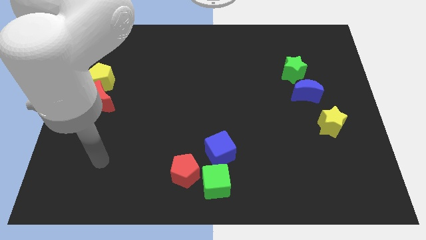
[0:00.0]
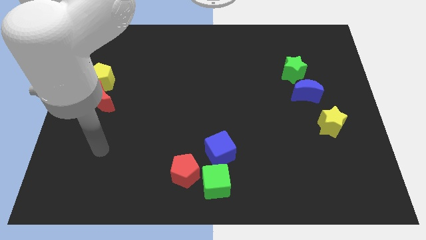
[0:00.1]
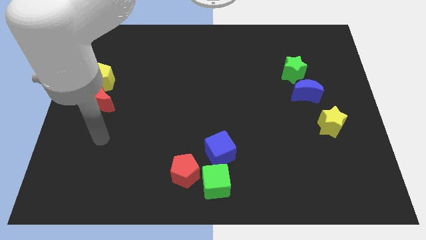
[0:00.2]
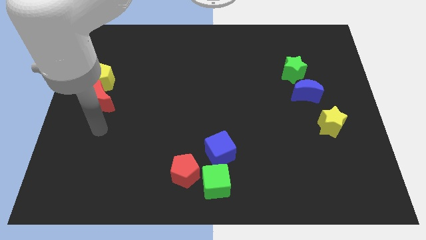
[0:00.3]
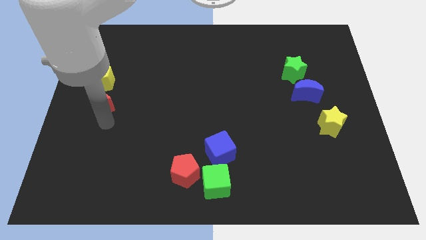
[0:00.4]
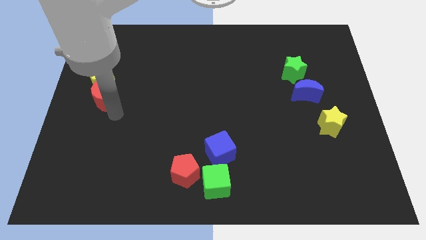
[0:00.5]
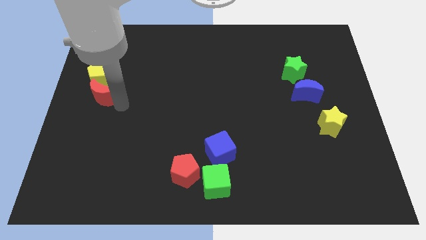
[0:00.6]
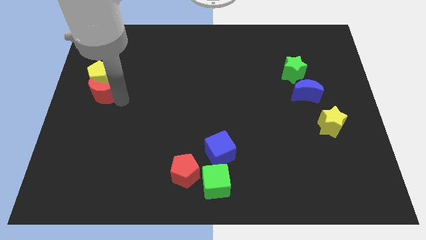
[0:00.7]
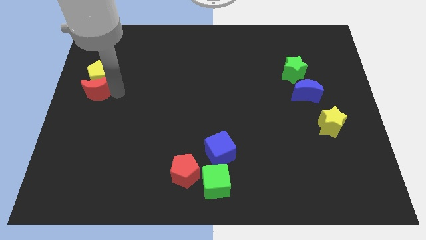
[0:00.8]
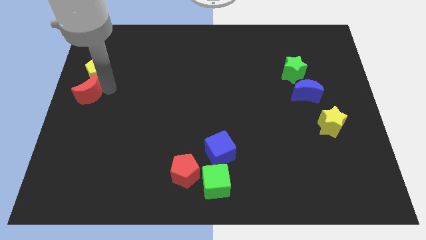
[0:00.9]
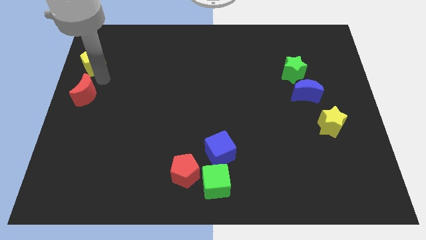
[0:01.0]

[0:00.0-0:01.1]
pull the red moon apart from the yellow pentagon

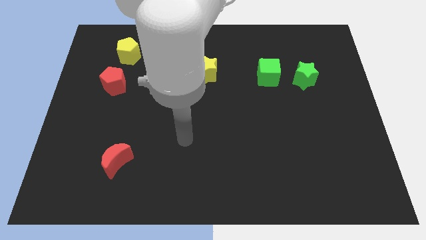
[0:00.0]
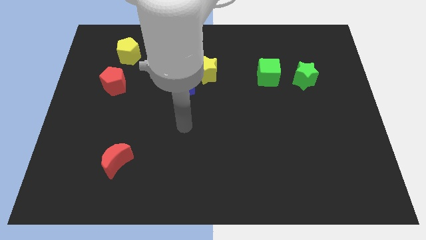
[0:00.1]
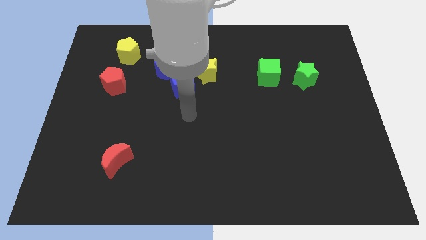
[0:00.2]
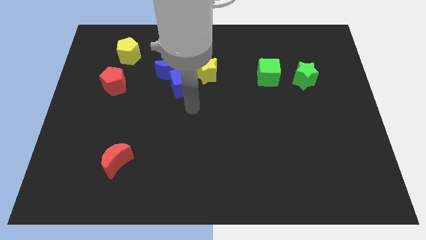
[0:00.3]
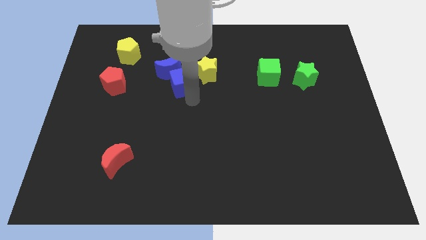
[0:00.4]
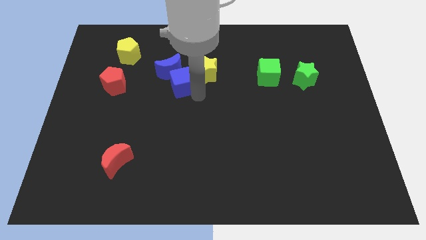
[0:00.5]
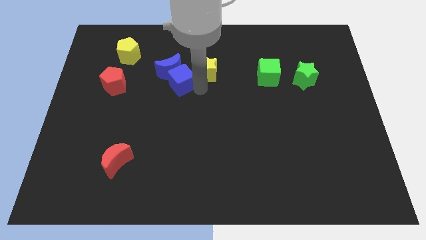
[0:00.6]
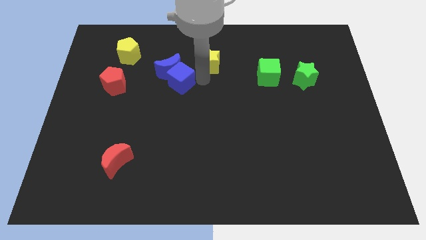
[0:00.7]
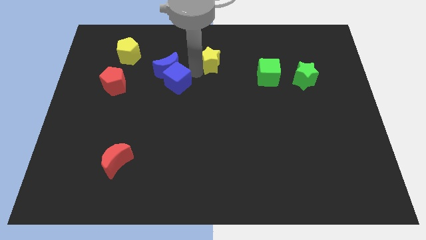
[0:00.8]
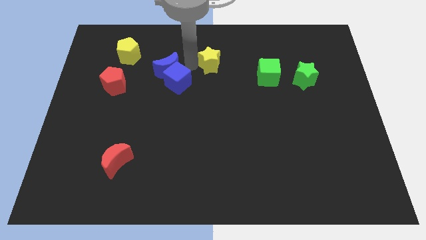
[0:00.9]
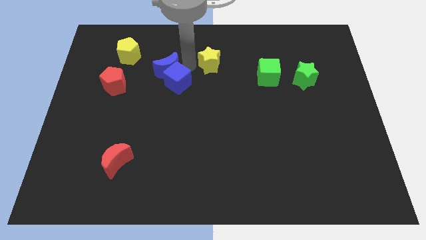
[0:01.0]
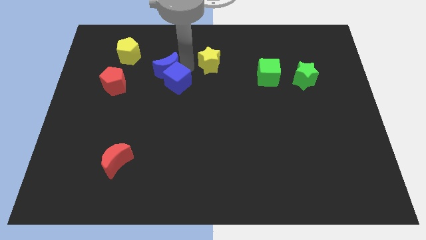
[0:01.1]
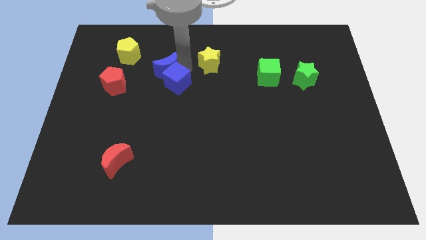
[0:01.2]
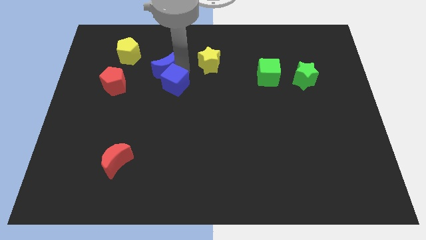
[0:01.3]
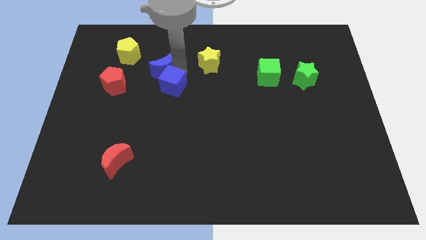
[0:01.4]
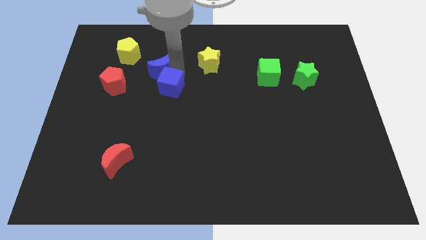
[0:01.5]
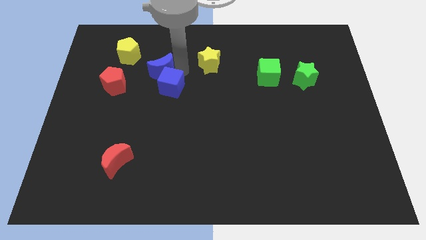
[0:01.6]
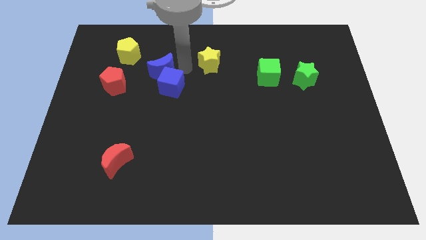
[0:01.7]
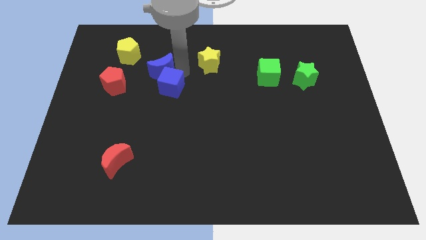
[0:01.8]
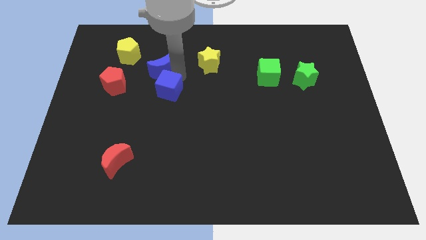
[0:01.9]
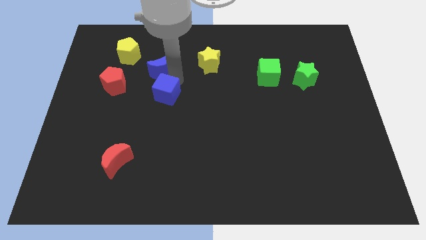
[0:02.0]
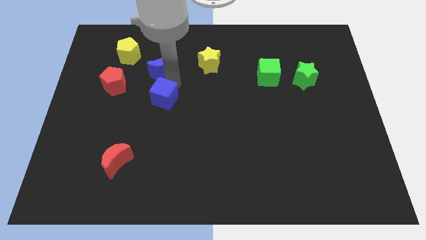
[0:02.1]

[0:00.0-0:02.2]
pull the blue cube apart from the blue moon and yellow star

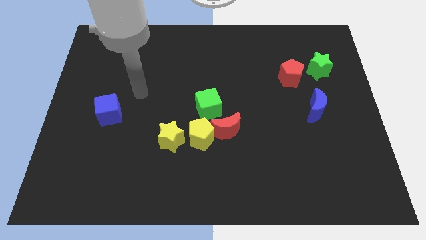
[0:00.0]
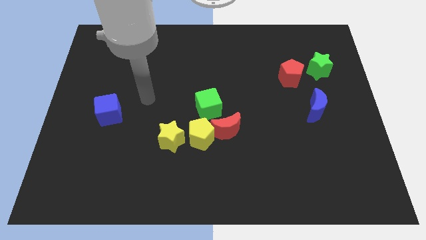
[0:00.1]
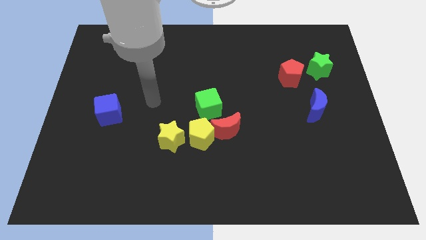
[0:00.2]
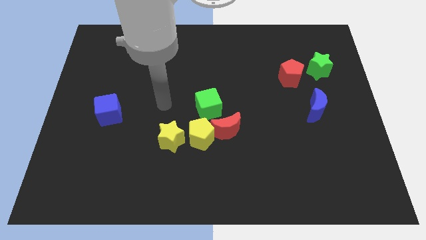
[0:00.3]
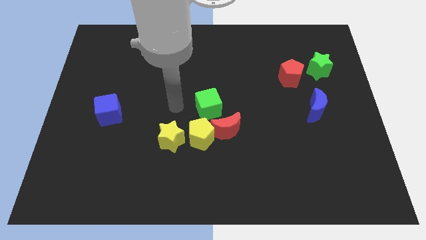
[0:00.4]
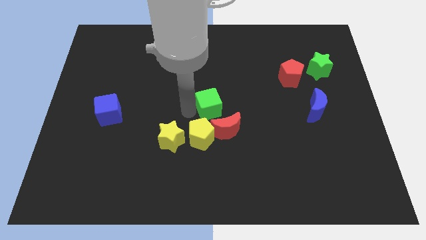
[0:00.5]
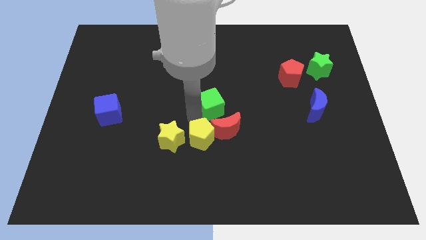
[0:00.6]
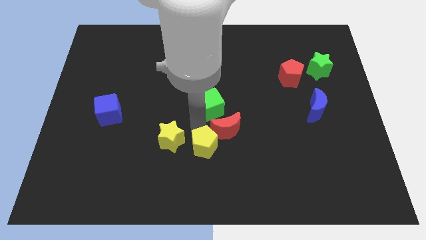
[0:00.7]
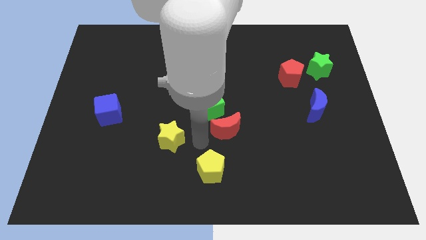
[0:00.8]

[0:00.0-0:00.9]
separate the yellow star from the yellow pentagon

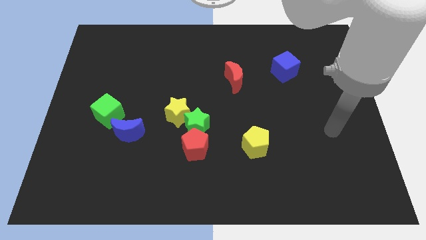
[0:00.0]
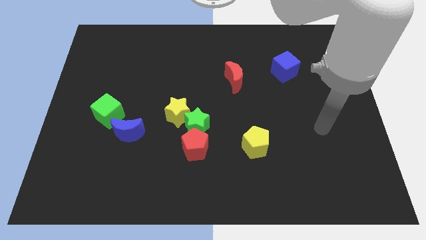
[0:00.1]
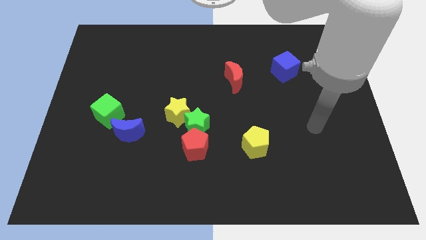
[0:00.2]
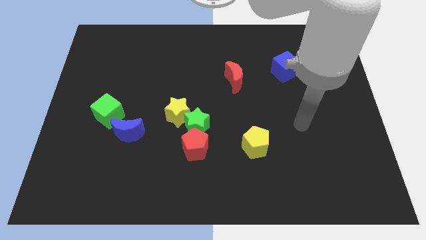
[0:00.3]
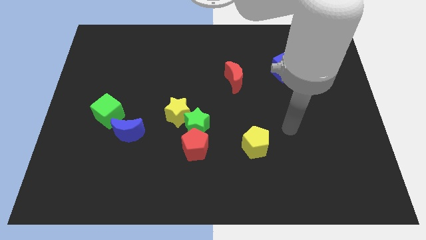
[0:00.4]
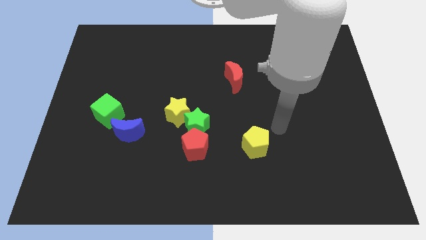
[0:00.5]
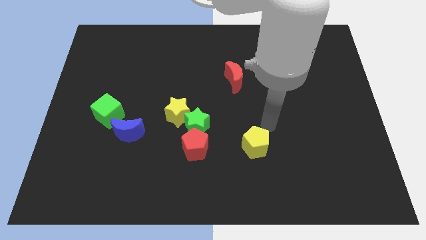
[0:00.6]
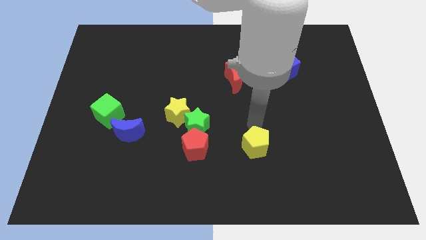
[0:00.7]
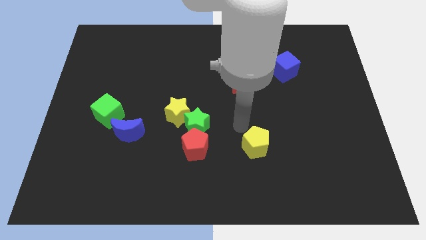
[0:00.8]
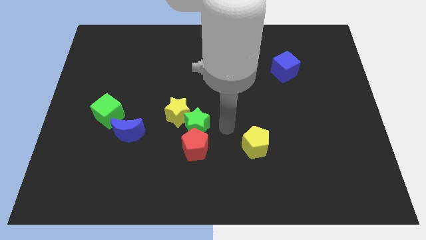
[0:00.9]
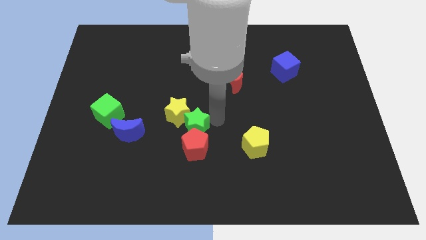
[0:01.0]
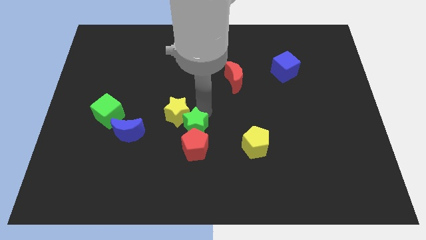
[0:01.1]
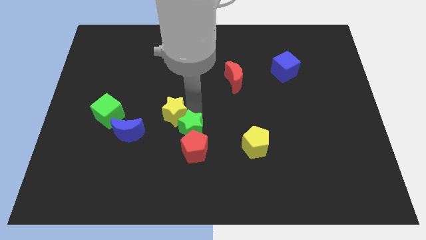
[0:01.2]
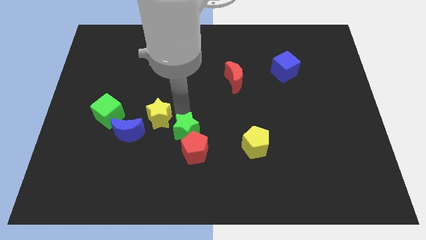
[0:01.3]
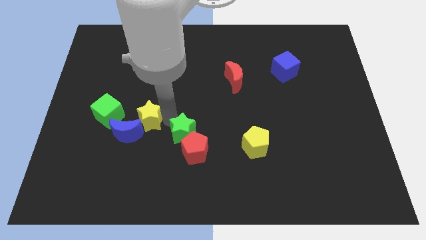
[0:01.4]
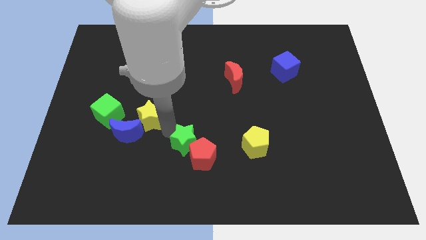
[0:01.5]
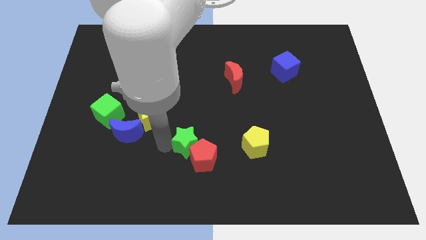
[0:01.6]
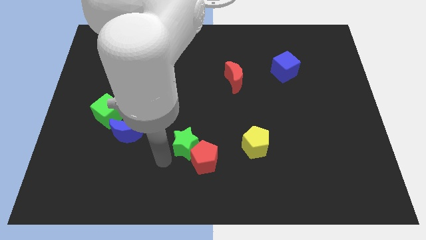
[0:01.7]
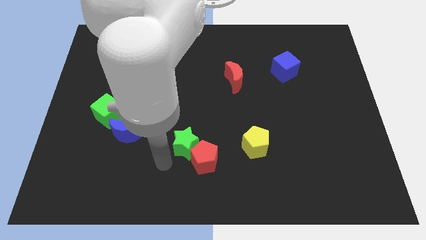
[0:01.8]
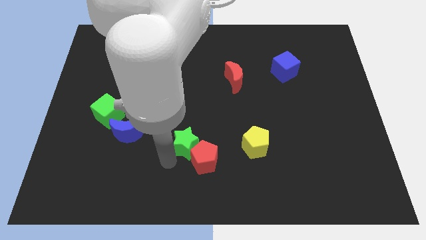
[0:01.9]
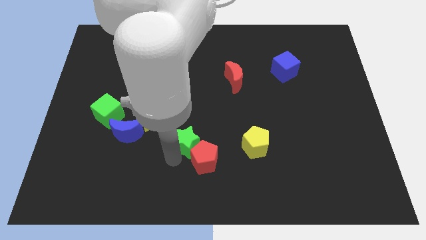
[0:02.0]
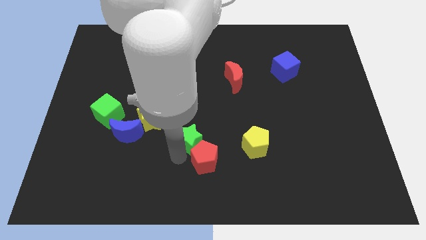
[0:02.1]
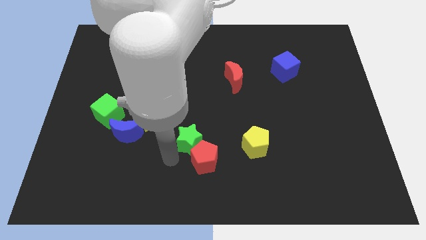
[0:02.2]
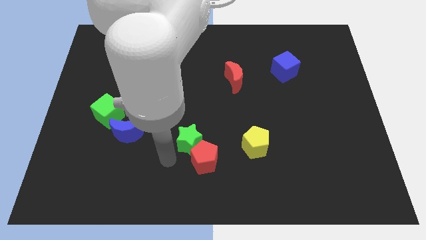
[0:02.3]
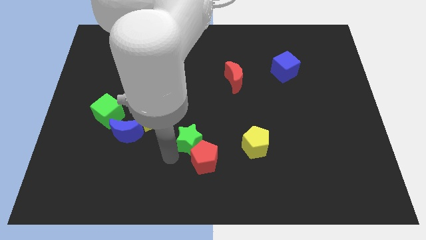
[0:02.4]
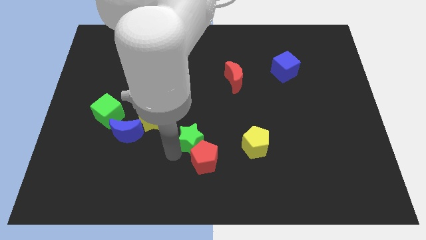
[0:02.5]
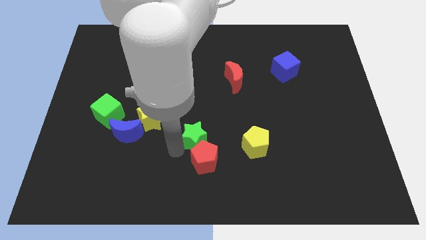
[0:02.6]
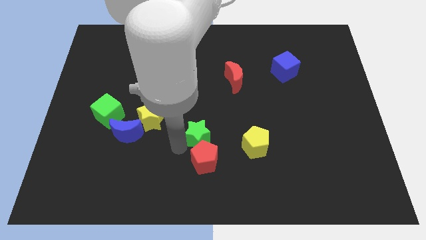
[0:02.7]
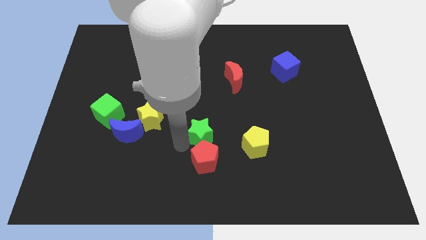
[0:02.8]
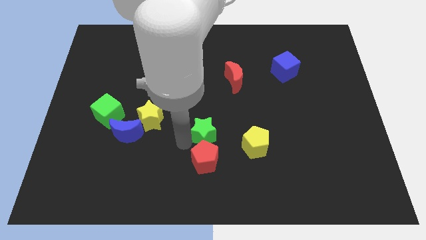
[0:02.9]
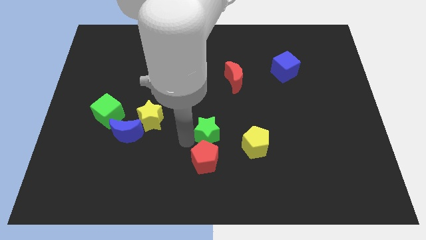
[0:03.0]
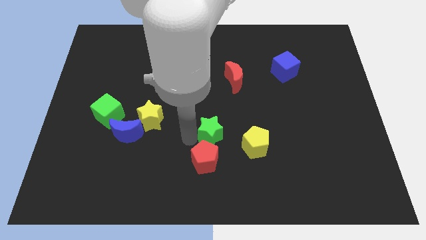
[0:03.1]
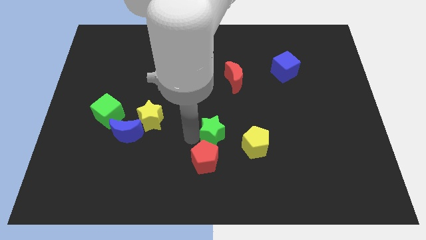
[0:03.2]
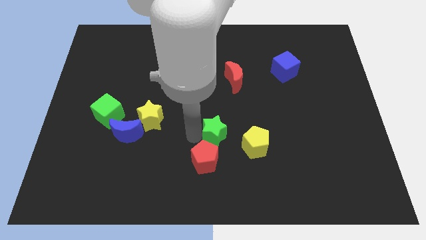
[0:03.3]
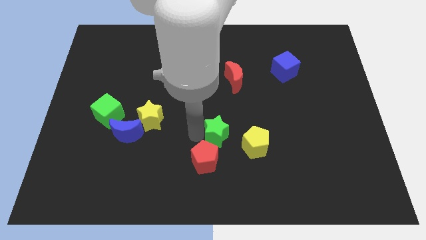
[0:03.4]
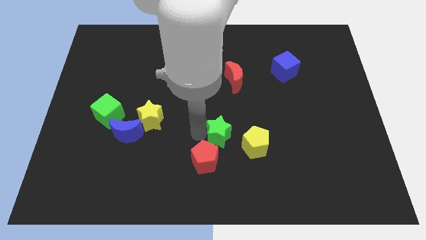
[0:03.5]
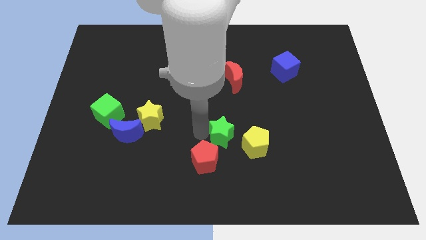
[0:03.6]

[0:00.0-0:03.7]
pull the green star apart from the red pentagon and yellow star

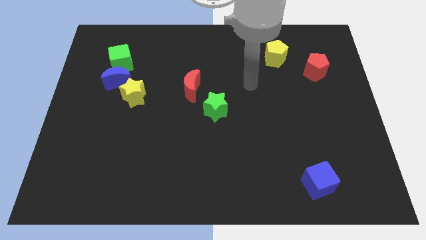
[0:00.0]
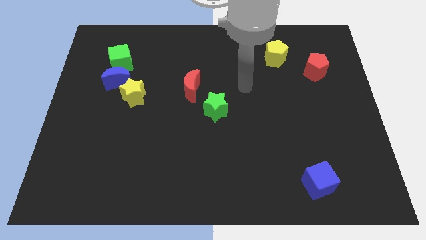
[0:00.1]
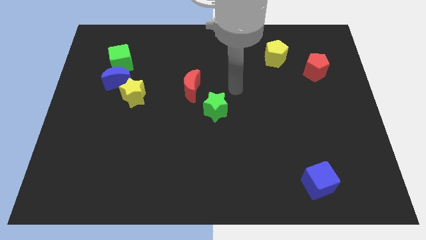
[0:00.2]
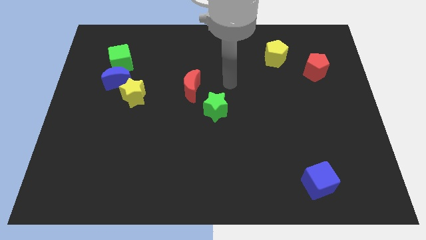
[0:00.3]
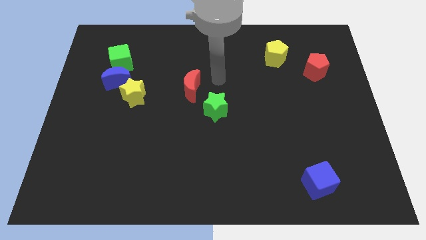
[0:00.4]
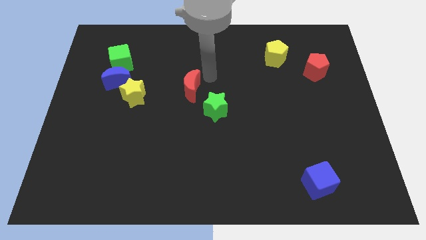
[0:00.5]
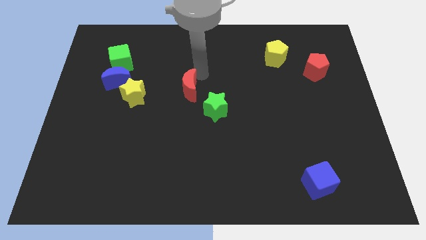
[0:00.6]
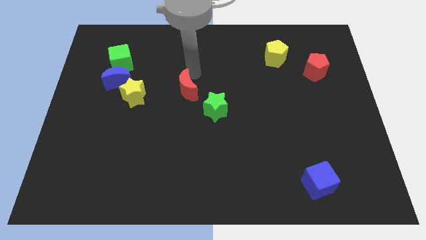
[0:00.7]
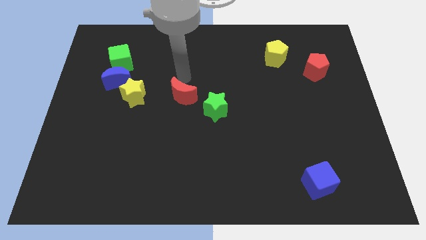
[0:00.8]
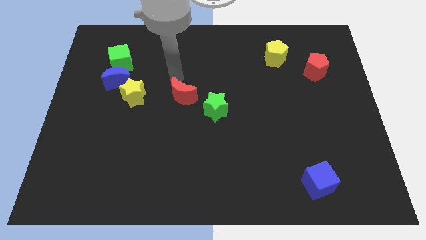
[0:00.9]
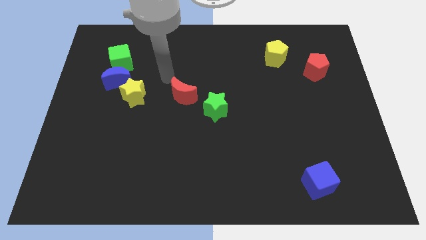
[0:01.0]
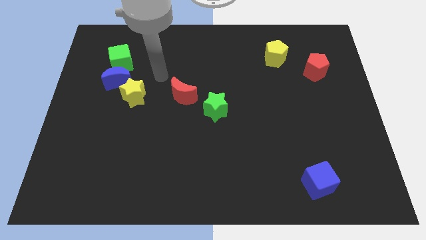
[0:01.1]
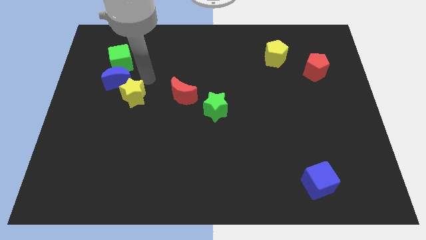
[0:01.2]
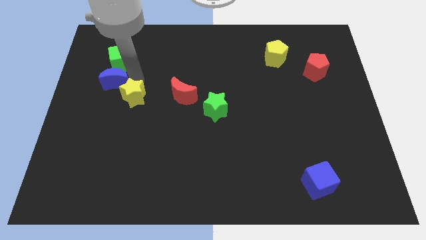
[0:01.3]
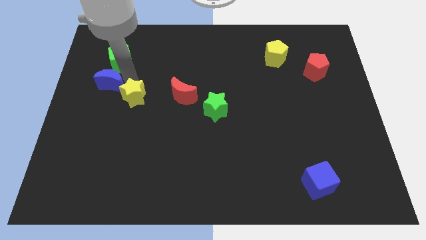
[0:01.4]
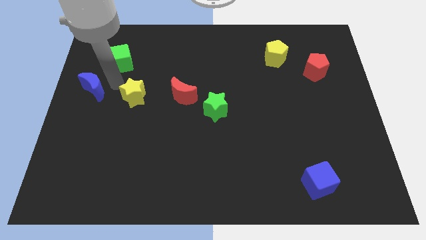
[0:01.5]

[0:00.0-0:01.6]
pull the yellow star apart from the blue moon
